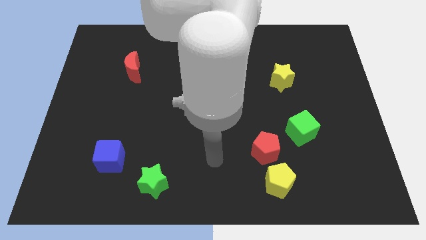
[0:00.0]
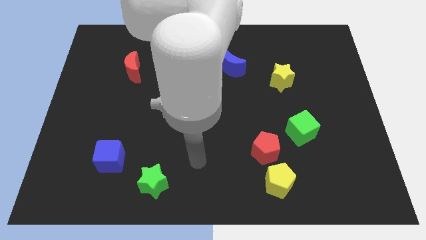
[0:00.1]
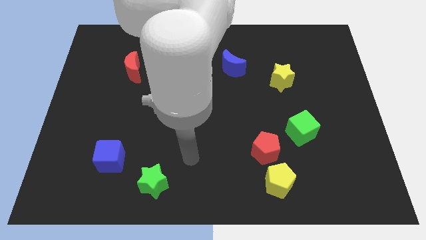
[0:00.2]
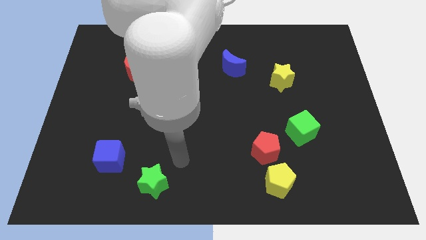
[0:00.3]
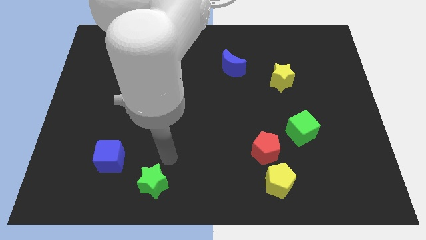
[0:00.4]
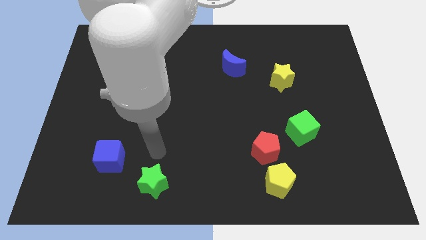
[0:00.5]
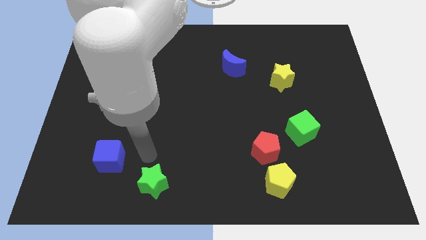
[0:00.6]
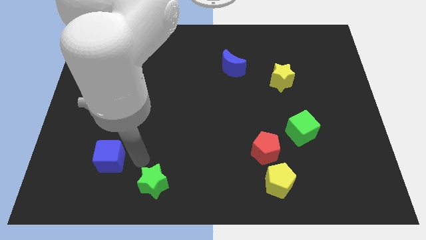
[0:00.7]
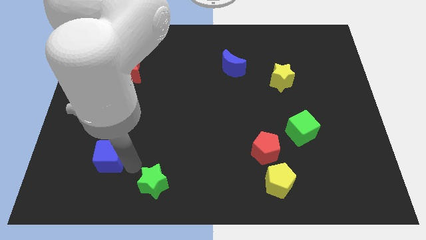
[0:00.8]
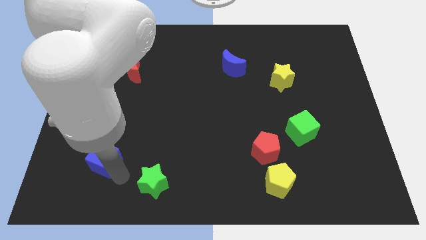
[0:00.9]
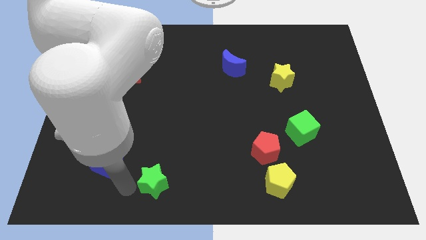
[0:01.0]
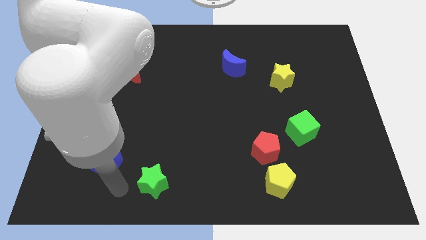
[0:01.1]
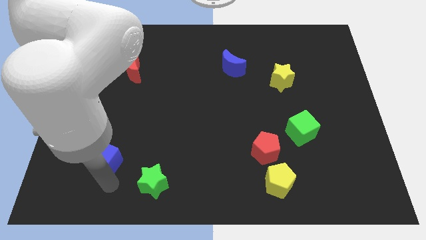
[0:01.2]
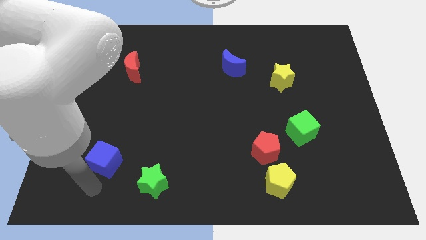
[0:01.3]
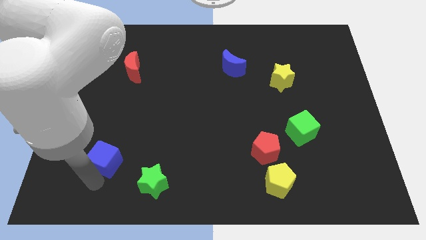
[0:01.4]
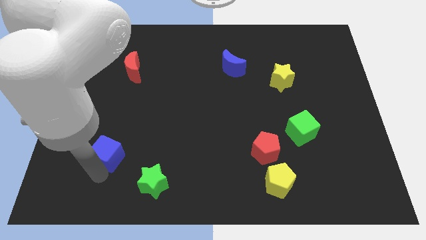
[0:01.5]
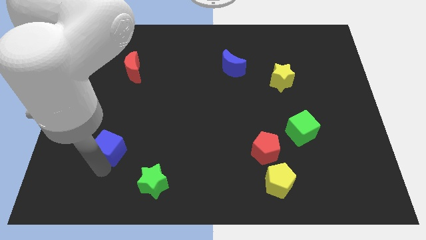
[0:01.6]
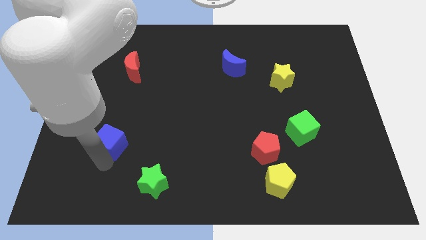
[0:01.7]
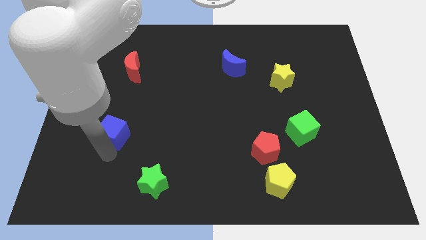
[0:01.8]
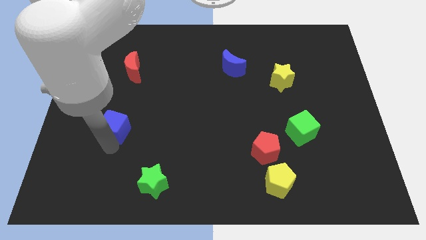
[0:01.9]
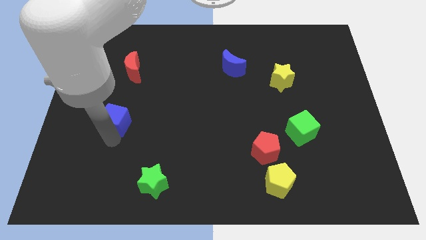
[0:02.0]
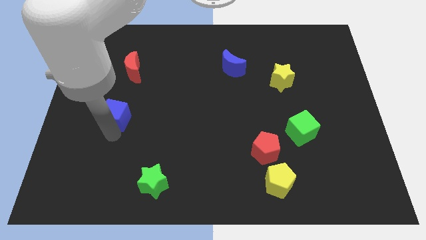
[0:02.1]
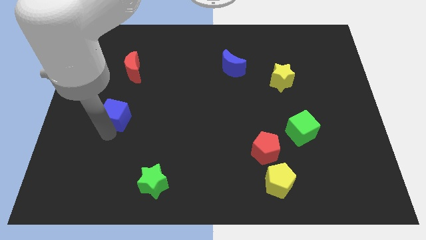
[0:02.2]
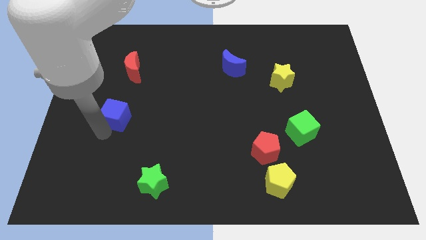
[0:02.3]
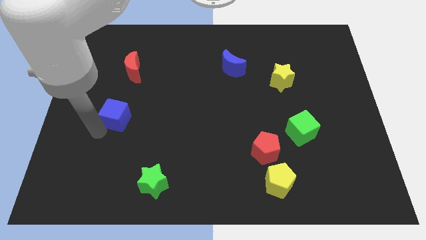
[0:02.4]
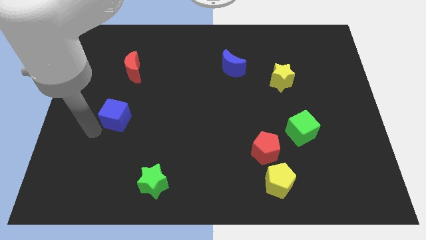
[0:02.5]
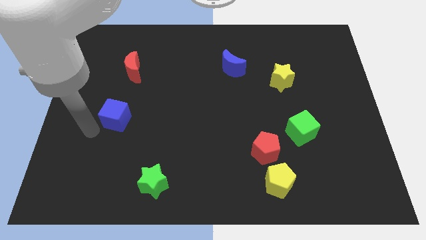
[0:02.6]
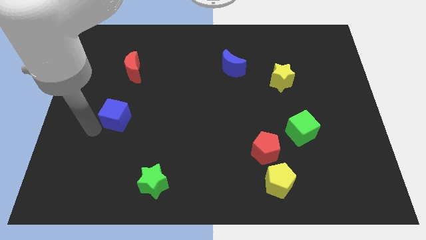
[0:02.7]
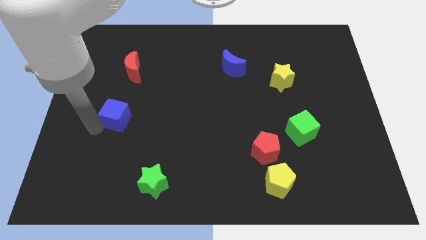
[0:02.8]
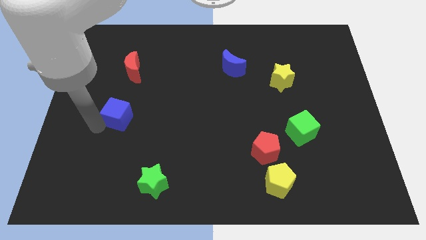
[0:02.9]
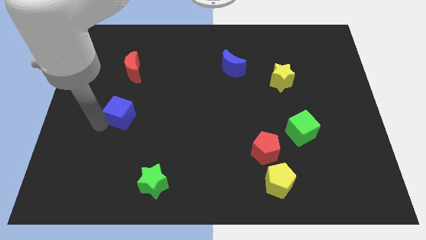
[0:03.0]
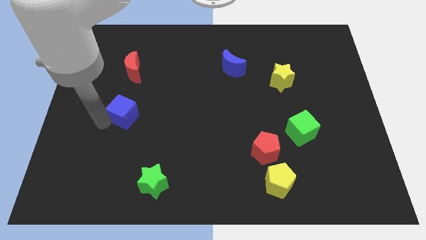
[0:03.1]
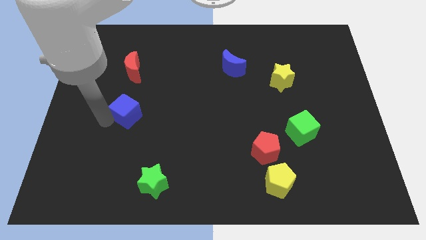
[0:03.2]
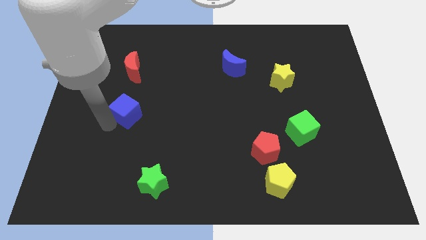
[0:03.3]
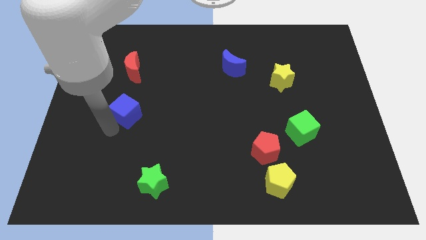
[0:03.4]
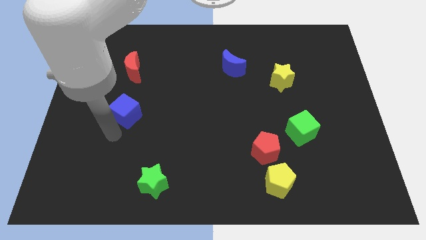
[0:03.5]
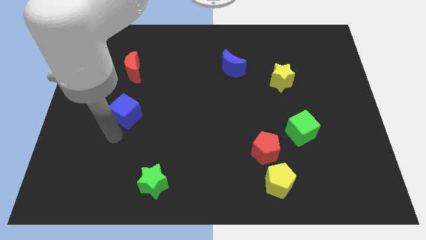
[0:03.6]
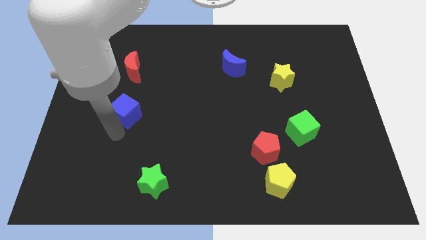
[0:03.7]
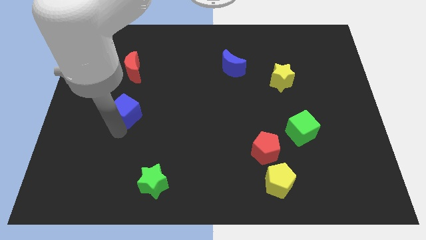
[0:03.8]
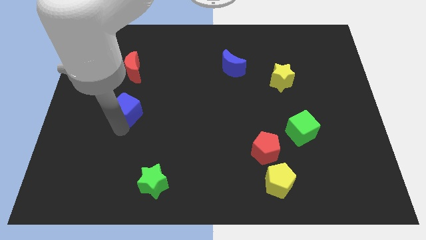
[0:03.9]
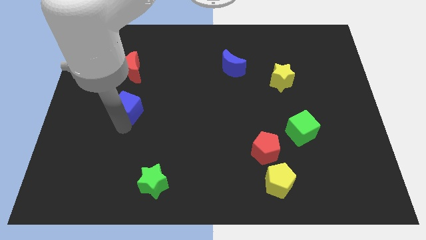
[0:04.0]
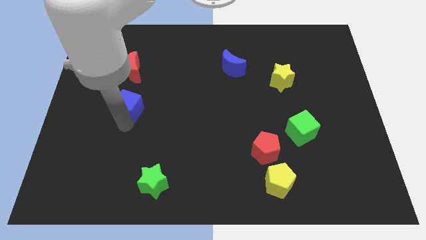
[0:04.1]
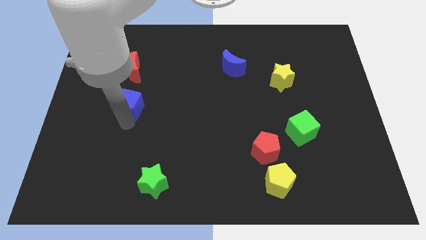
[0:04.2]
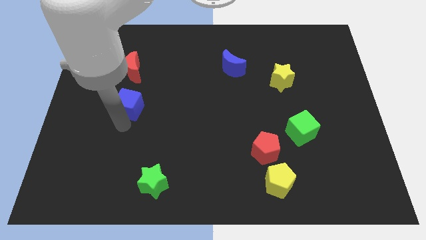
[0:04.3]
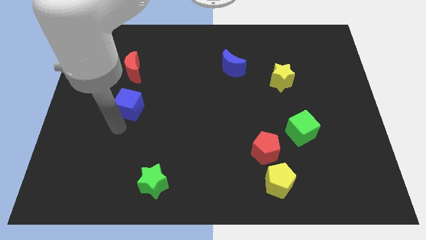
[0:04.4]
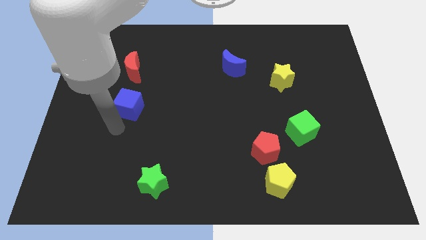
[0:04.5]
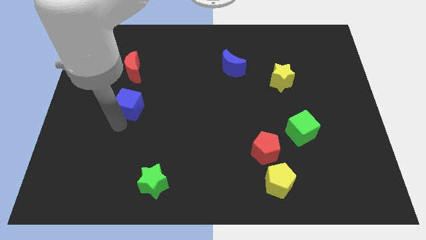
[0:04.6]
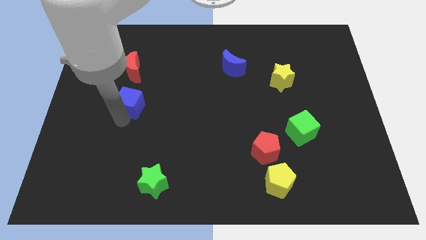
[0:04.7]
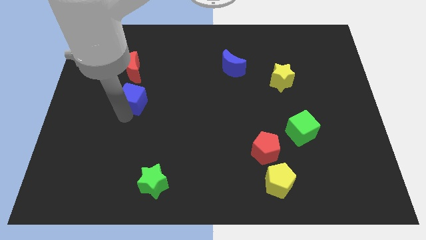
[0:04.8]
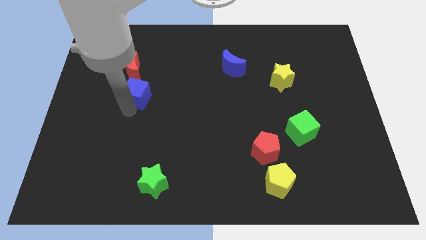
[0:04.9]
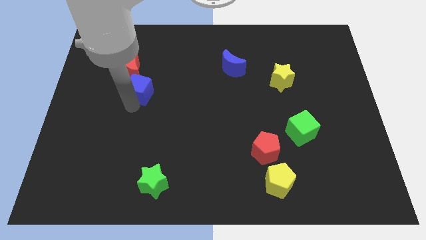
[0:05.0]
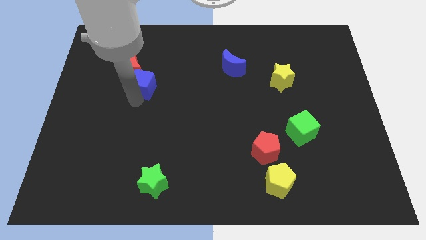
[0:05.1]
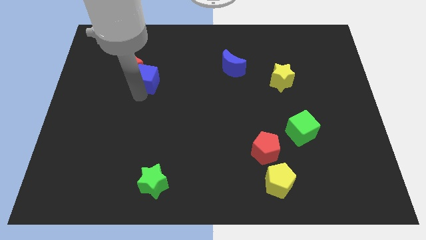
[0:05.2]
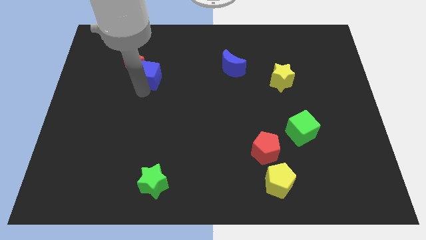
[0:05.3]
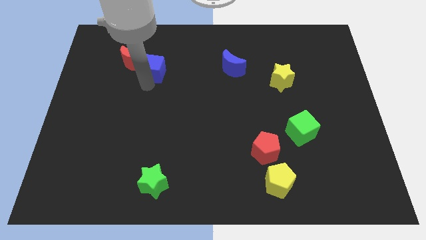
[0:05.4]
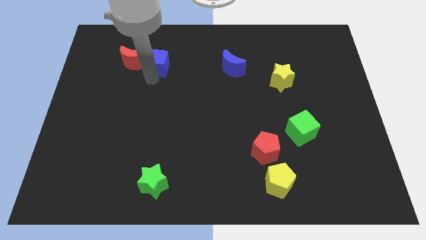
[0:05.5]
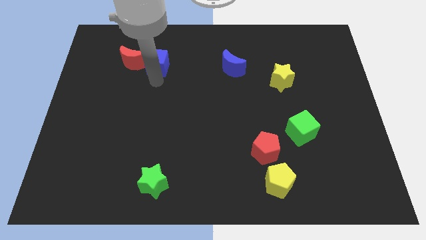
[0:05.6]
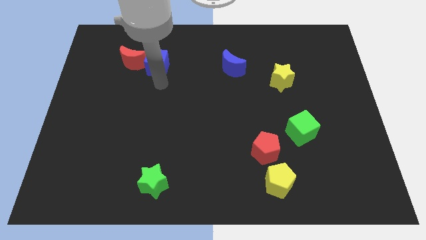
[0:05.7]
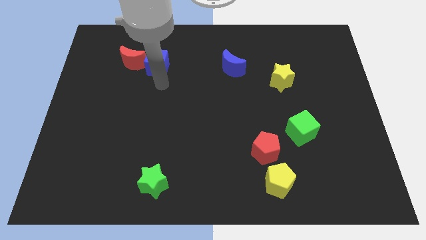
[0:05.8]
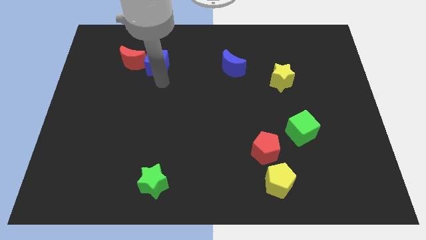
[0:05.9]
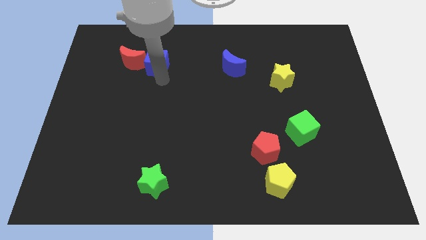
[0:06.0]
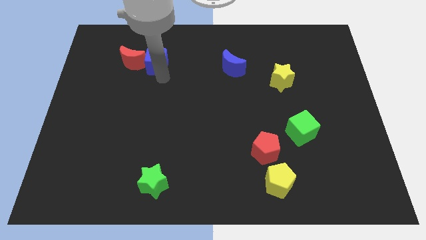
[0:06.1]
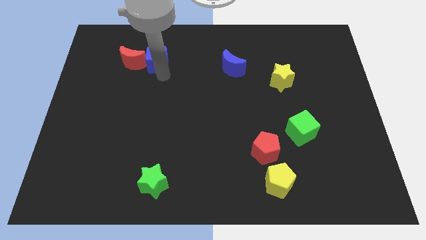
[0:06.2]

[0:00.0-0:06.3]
move the blue cube to the top right of the red moon

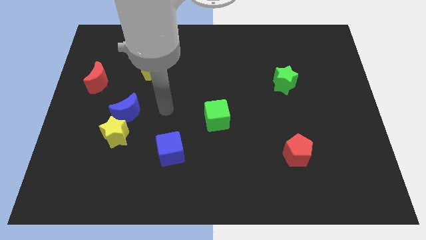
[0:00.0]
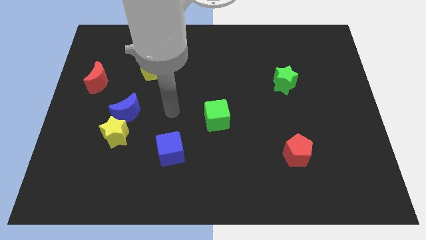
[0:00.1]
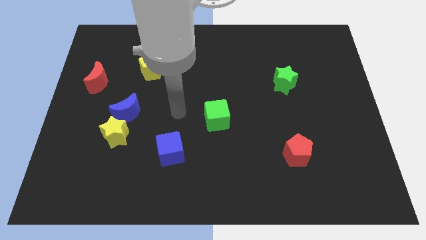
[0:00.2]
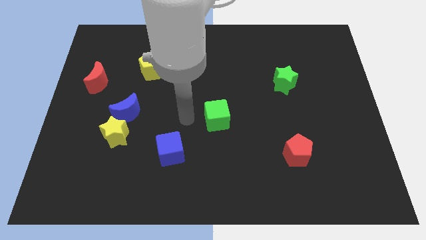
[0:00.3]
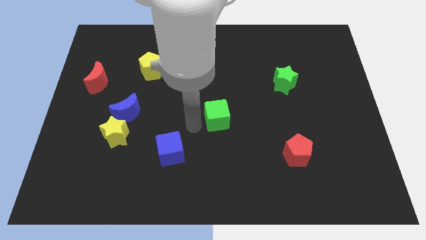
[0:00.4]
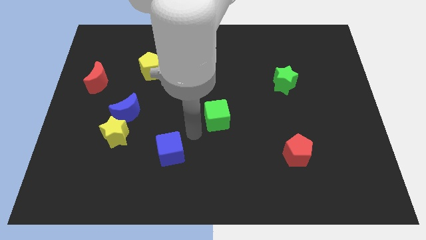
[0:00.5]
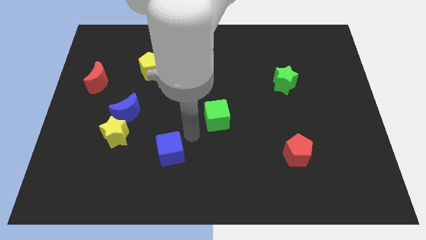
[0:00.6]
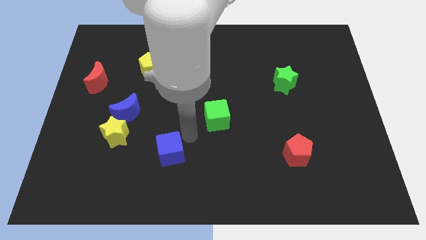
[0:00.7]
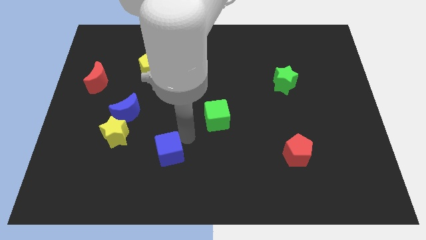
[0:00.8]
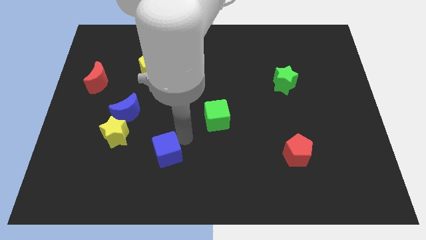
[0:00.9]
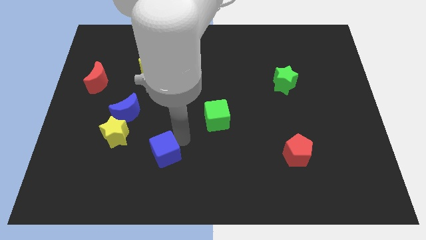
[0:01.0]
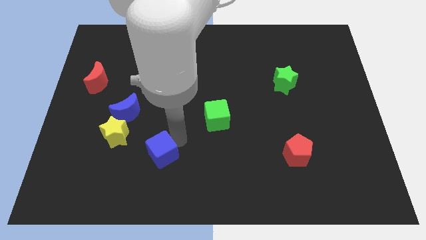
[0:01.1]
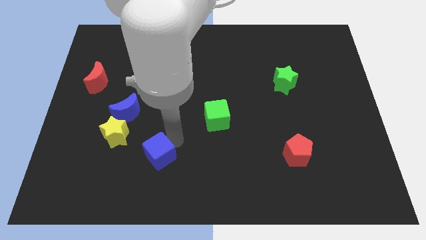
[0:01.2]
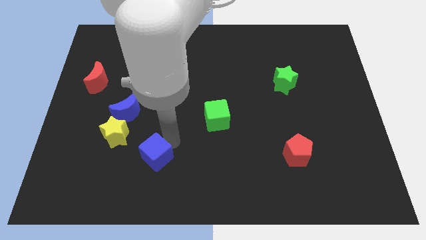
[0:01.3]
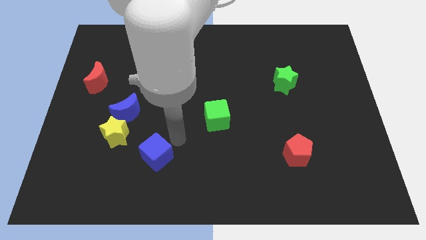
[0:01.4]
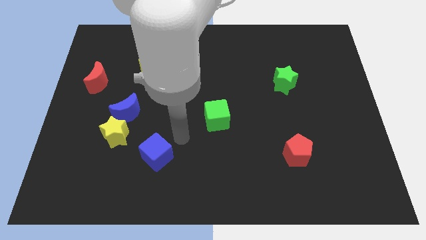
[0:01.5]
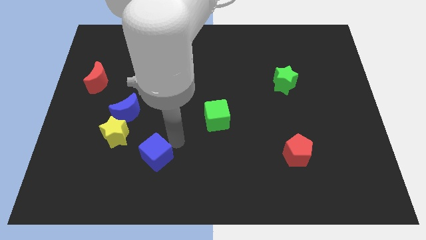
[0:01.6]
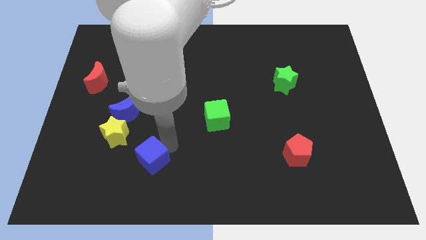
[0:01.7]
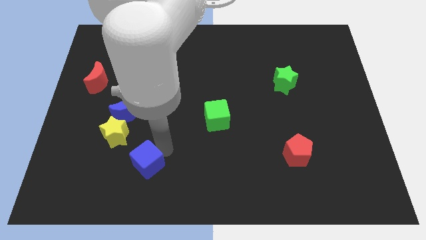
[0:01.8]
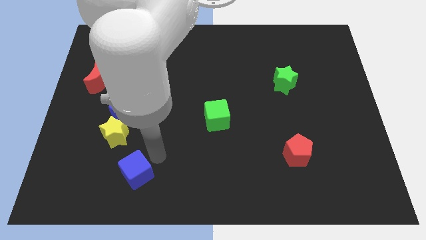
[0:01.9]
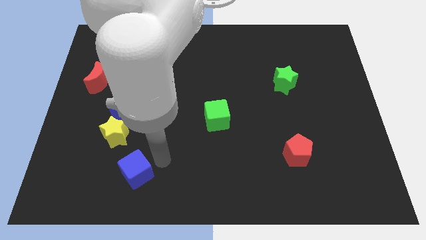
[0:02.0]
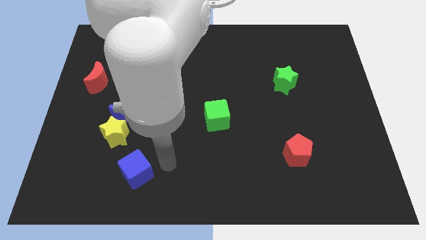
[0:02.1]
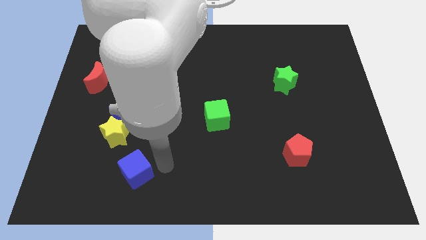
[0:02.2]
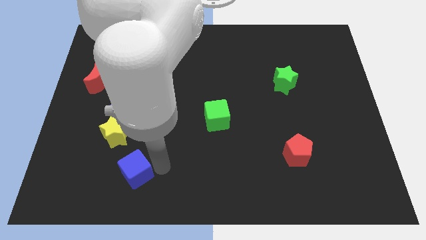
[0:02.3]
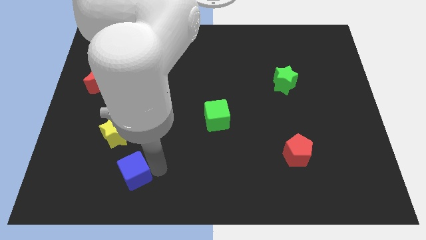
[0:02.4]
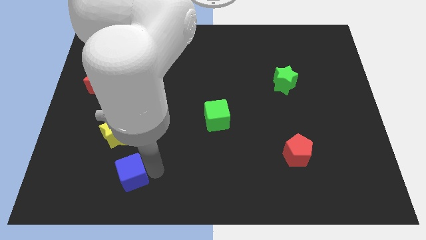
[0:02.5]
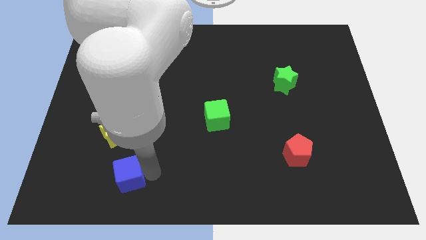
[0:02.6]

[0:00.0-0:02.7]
move the blue cube to the bottom of the yellow star
